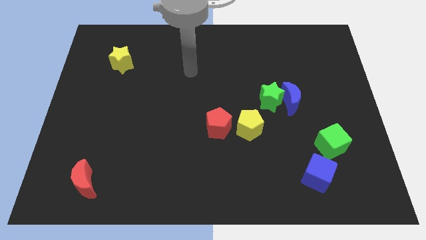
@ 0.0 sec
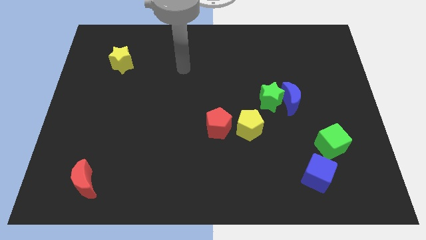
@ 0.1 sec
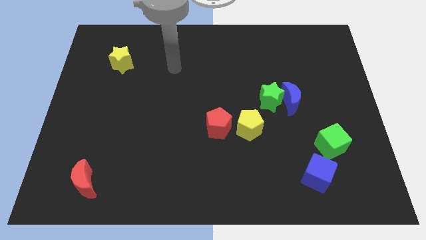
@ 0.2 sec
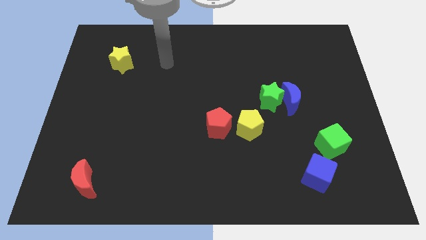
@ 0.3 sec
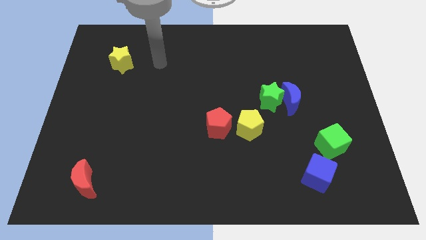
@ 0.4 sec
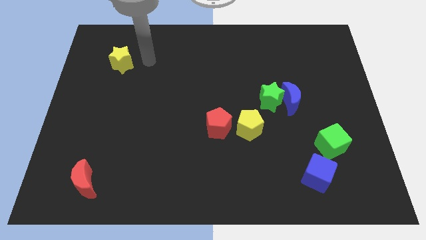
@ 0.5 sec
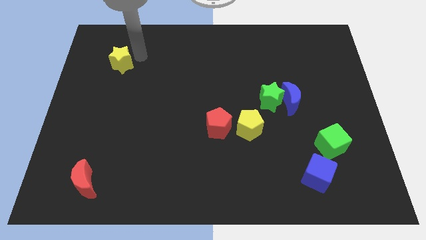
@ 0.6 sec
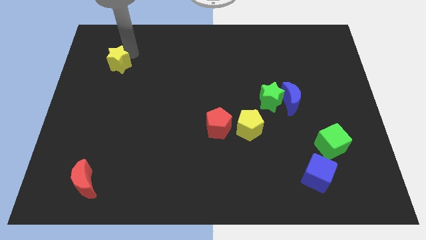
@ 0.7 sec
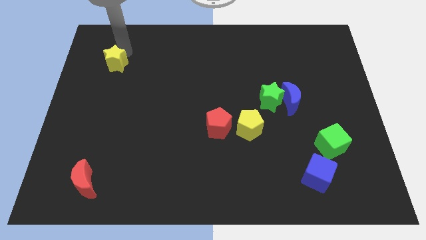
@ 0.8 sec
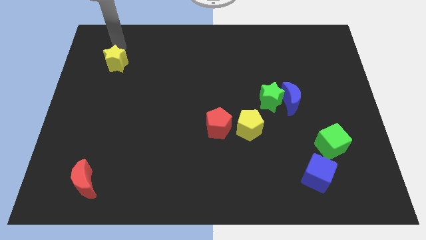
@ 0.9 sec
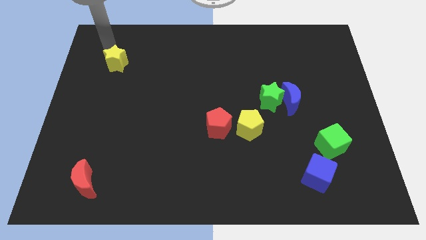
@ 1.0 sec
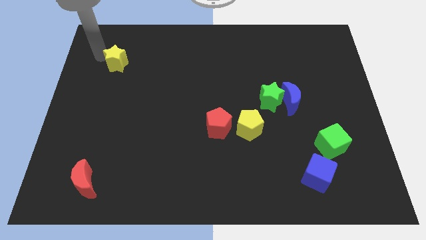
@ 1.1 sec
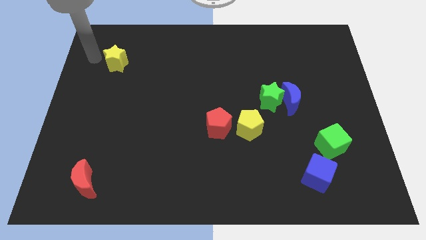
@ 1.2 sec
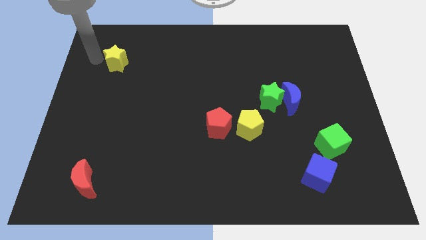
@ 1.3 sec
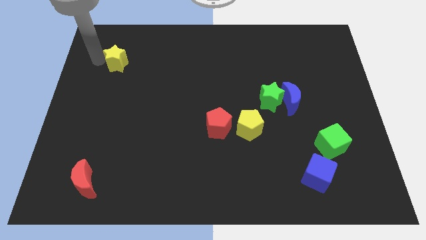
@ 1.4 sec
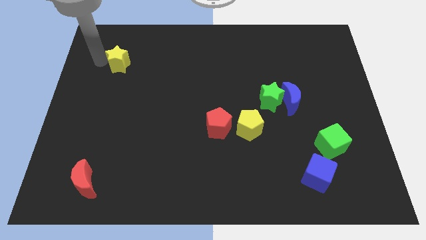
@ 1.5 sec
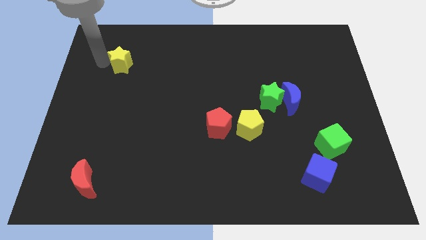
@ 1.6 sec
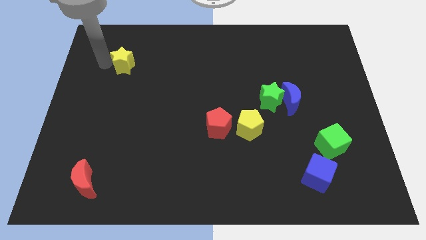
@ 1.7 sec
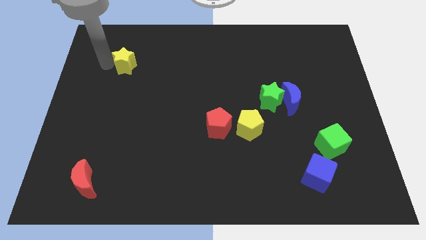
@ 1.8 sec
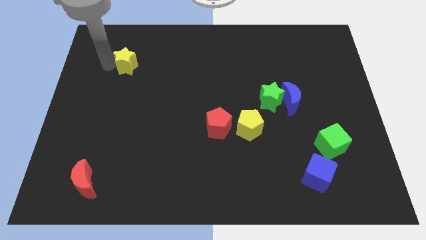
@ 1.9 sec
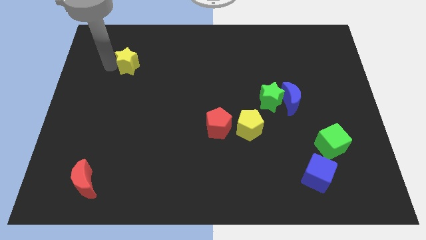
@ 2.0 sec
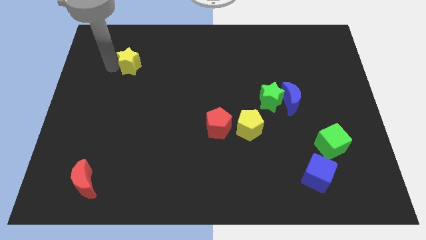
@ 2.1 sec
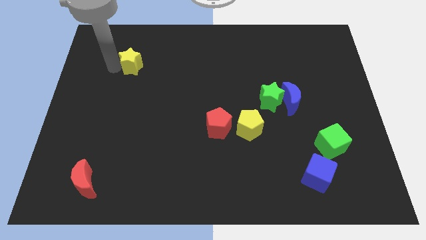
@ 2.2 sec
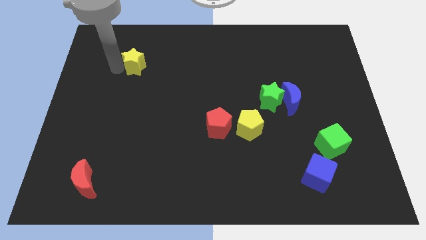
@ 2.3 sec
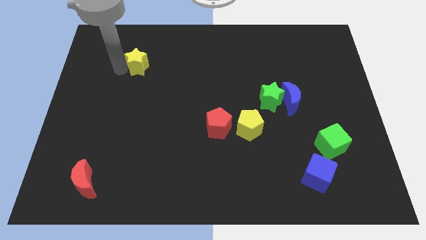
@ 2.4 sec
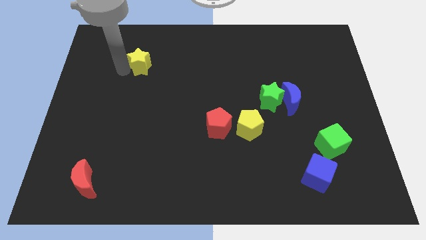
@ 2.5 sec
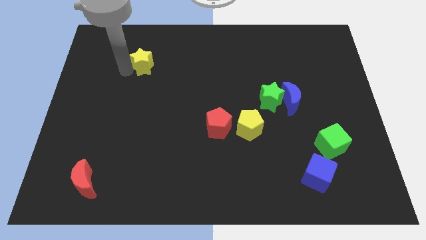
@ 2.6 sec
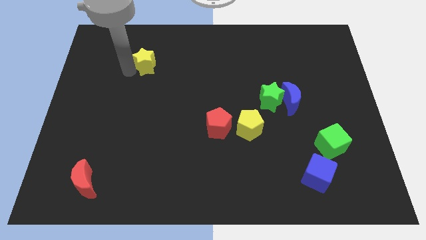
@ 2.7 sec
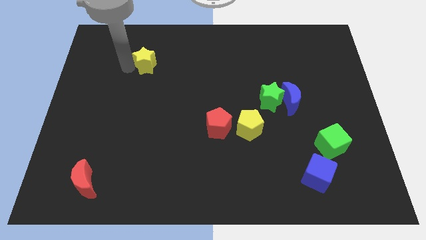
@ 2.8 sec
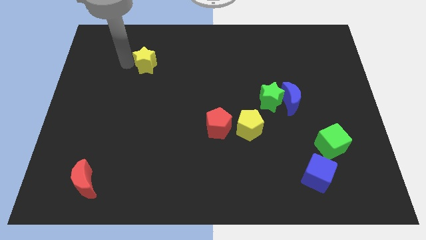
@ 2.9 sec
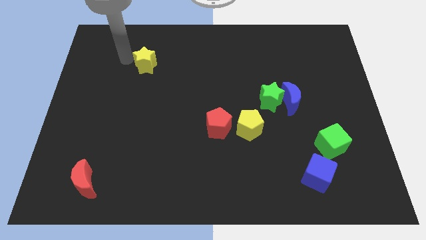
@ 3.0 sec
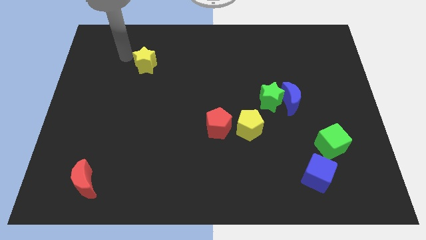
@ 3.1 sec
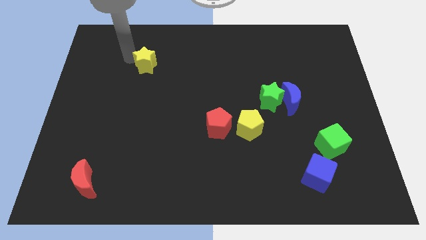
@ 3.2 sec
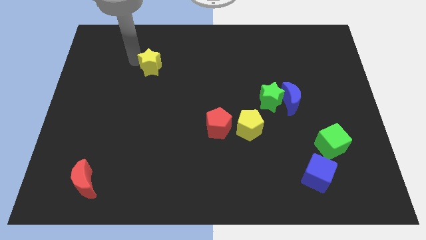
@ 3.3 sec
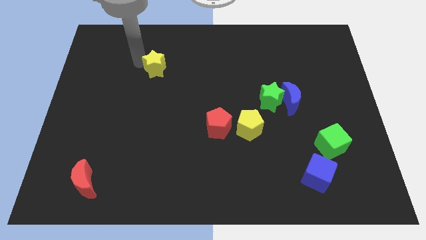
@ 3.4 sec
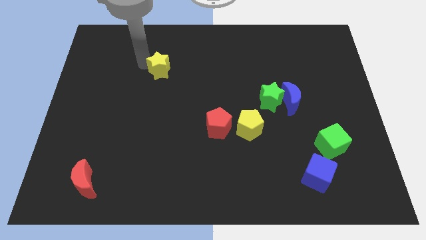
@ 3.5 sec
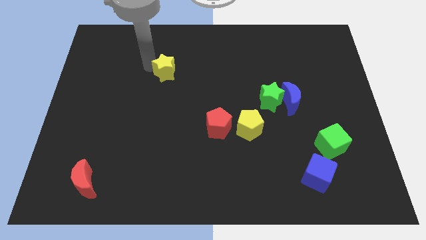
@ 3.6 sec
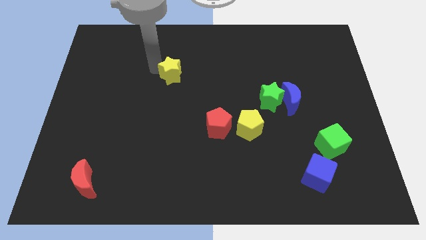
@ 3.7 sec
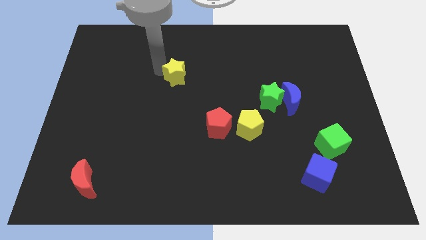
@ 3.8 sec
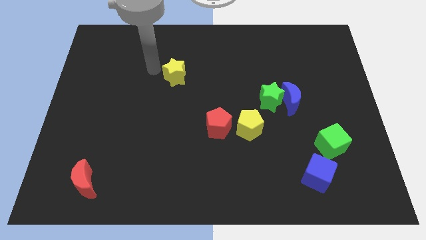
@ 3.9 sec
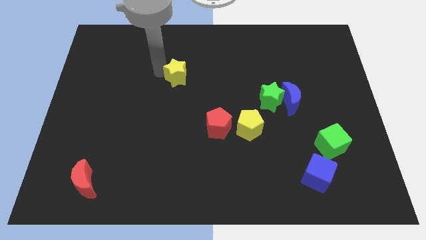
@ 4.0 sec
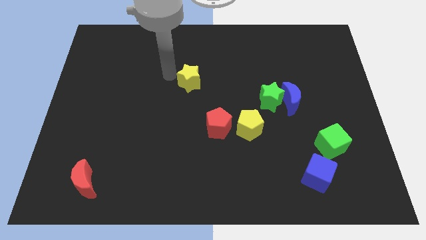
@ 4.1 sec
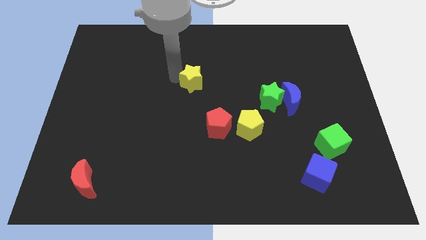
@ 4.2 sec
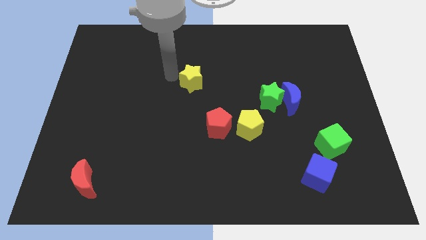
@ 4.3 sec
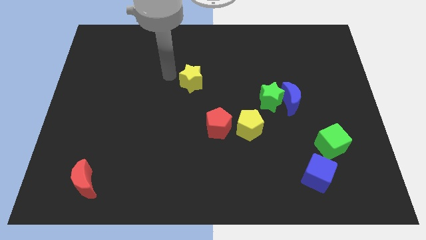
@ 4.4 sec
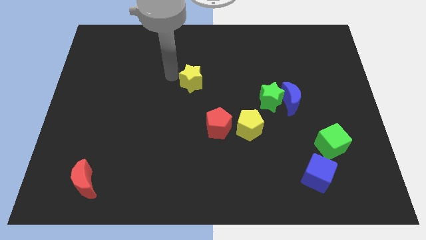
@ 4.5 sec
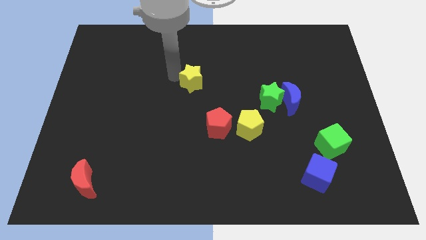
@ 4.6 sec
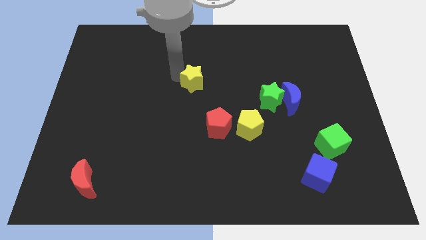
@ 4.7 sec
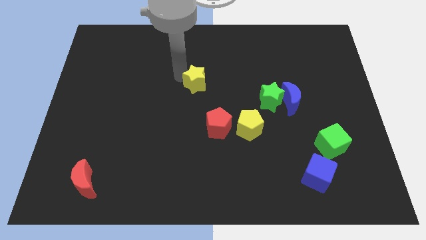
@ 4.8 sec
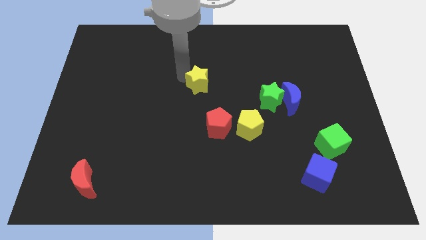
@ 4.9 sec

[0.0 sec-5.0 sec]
slide the yellow star to the top side of the red pentagon

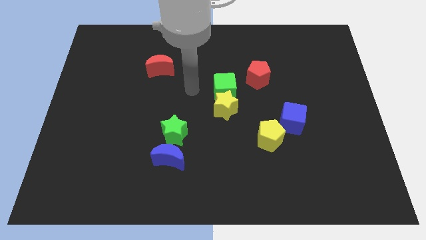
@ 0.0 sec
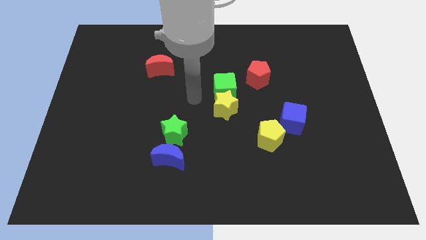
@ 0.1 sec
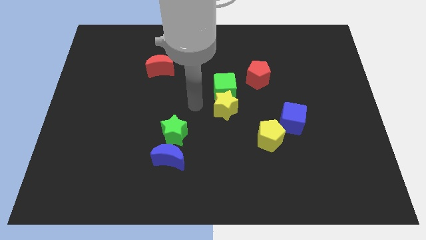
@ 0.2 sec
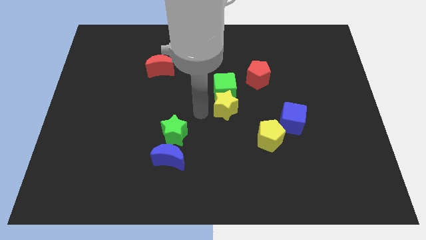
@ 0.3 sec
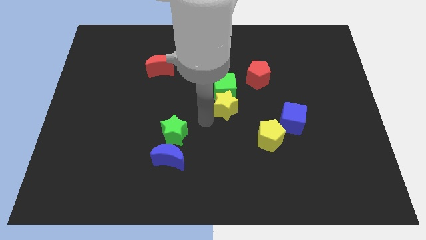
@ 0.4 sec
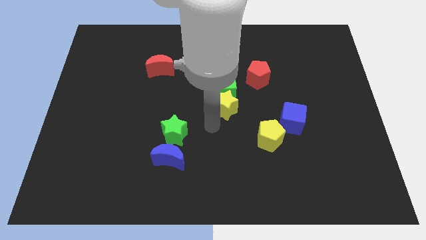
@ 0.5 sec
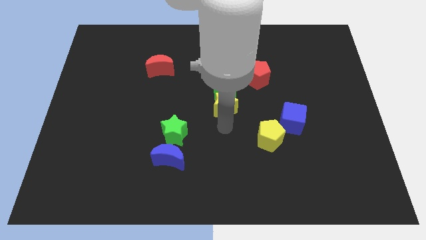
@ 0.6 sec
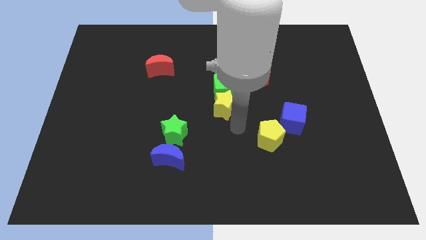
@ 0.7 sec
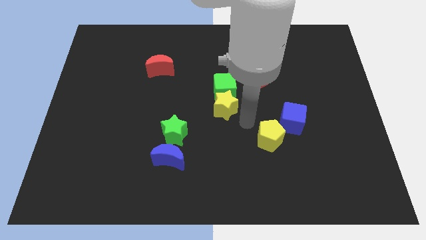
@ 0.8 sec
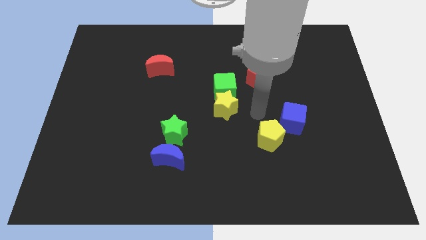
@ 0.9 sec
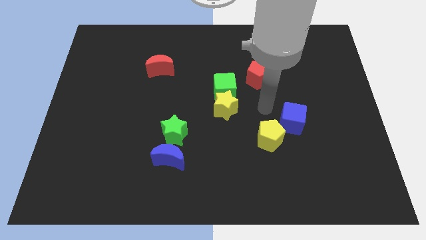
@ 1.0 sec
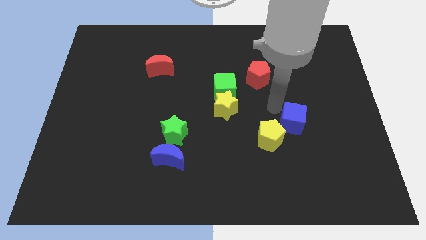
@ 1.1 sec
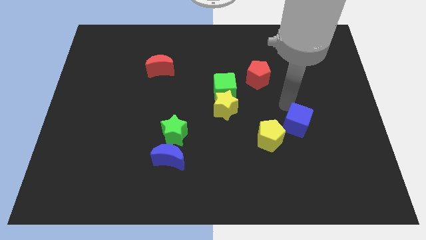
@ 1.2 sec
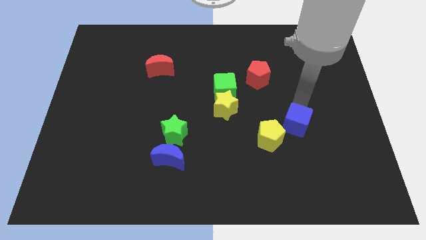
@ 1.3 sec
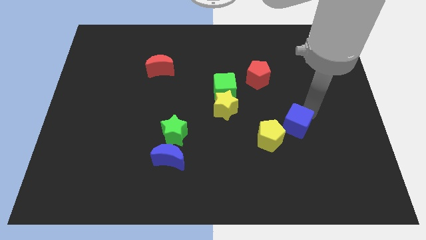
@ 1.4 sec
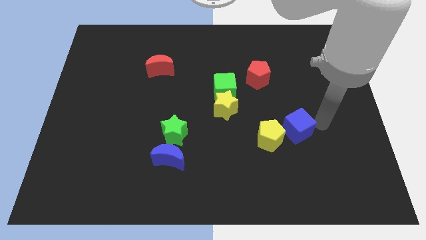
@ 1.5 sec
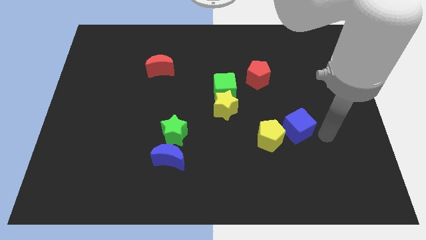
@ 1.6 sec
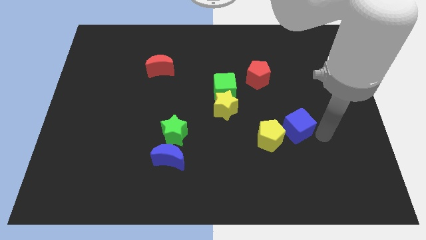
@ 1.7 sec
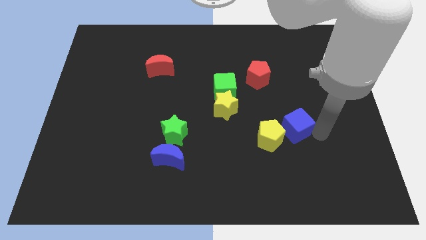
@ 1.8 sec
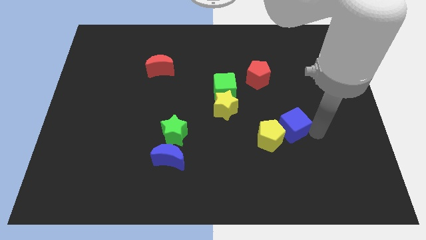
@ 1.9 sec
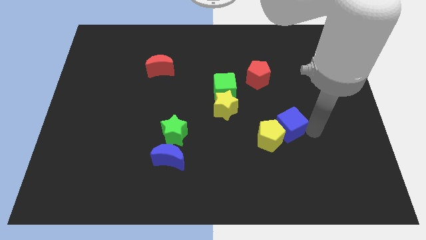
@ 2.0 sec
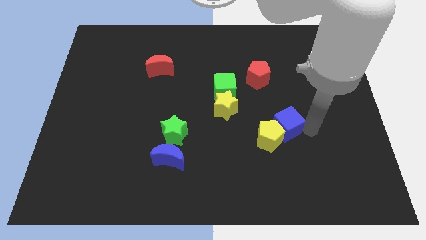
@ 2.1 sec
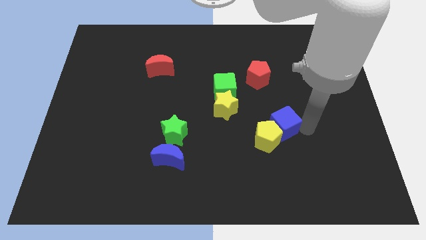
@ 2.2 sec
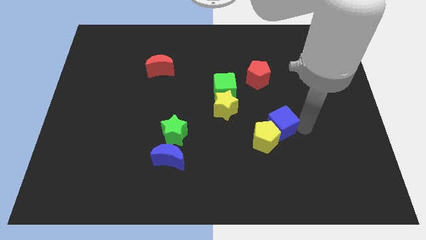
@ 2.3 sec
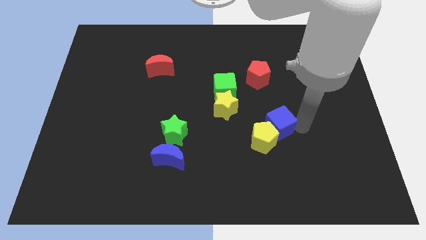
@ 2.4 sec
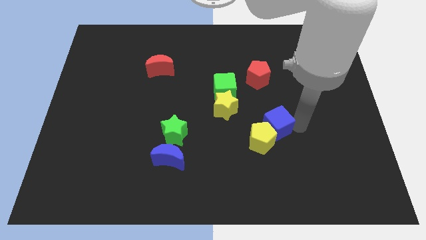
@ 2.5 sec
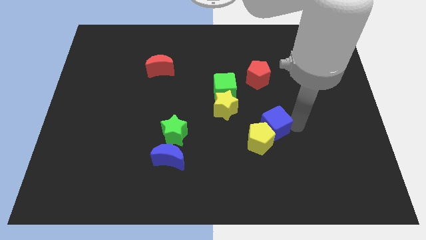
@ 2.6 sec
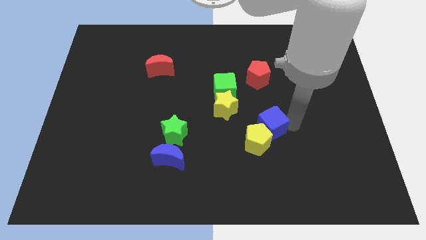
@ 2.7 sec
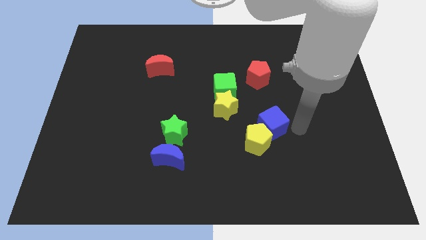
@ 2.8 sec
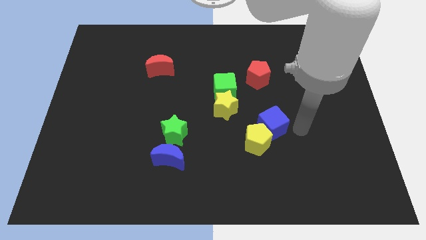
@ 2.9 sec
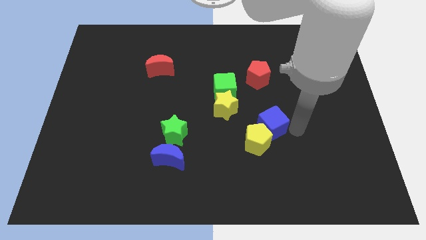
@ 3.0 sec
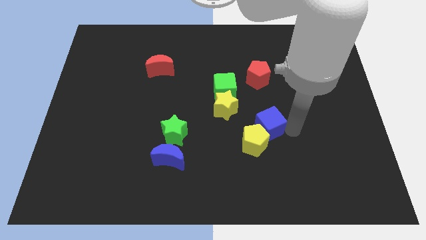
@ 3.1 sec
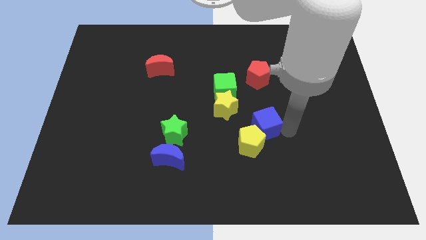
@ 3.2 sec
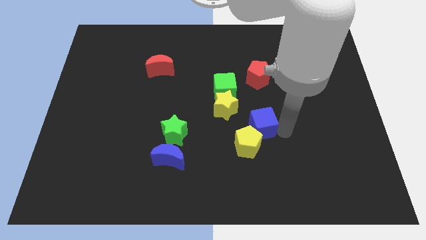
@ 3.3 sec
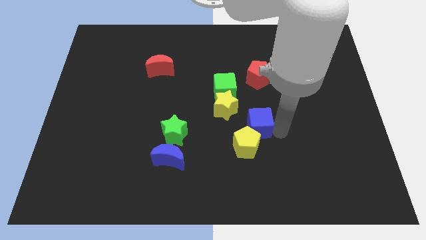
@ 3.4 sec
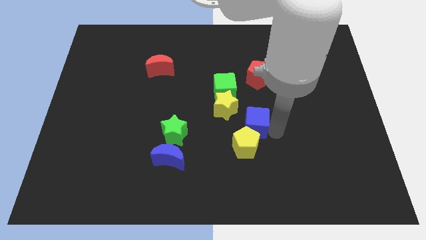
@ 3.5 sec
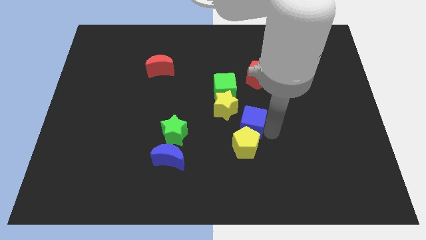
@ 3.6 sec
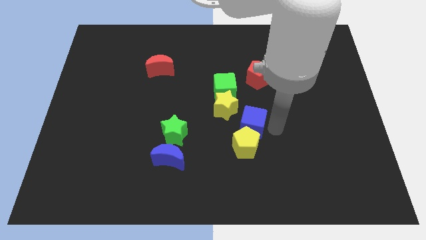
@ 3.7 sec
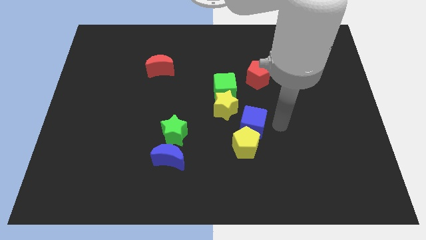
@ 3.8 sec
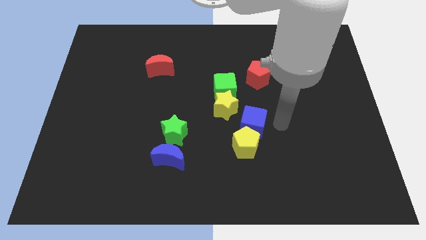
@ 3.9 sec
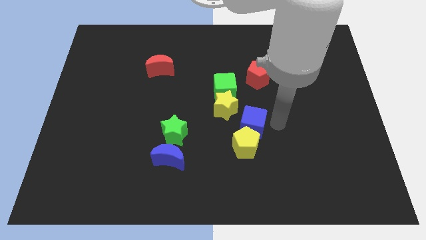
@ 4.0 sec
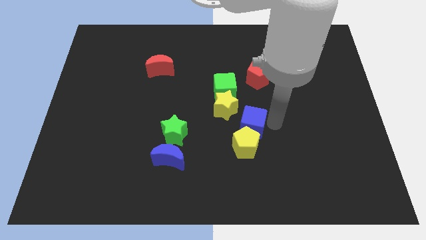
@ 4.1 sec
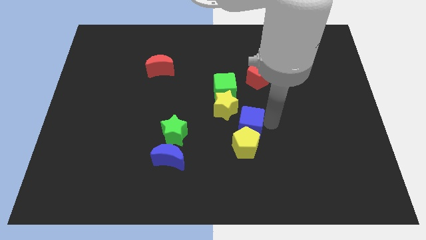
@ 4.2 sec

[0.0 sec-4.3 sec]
push the blue cube to the top left of the yellow pentagon
